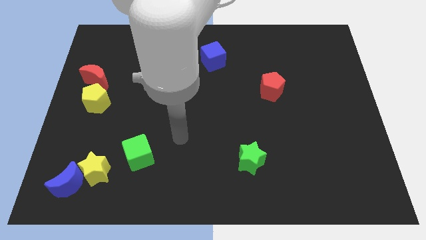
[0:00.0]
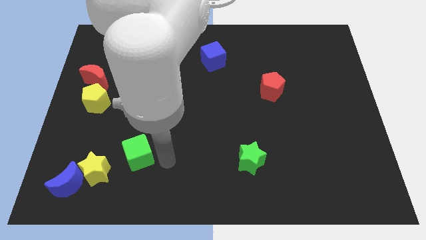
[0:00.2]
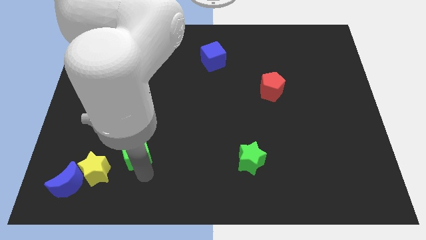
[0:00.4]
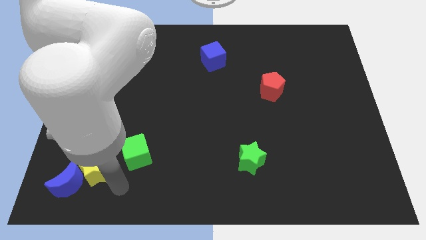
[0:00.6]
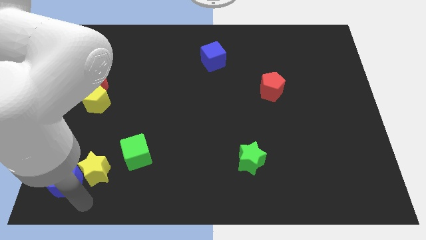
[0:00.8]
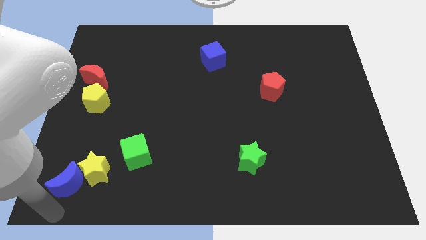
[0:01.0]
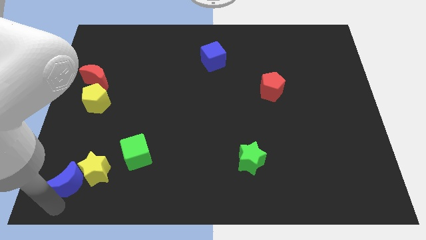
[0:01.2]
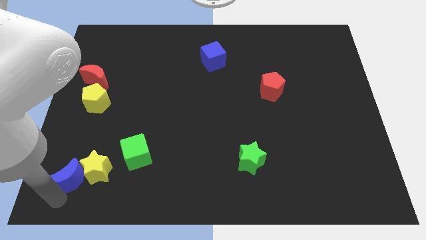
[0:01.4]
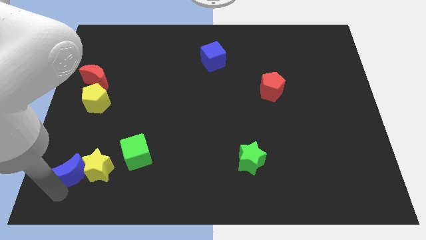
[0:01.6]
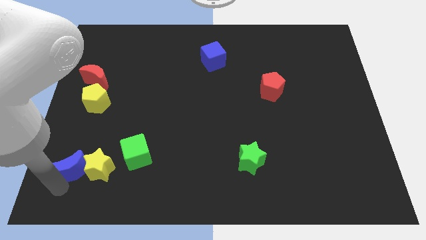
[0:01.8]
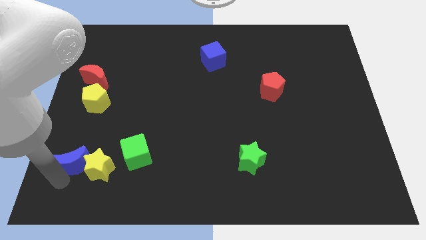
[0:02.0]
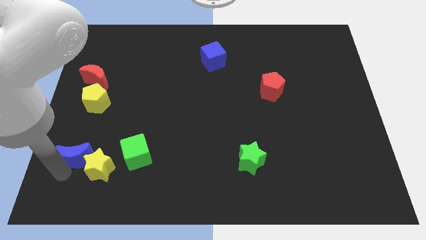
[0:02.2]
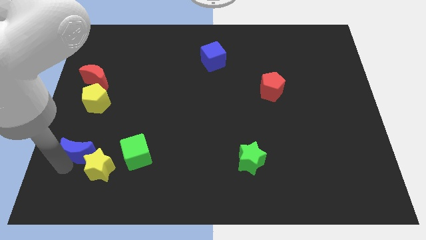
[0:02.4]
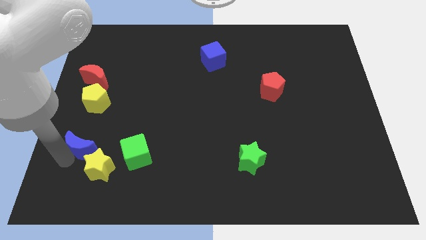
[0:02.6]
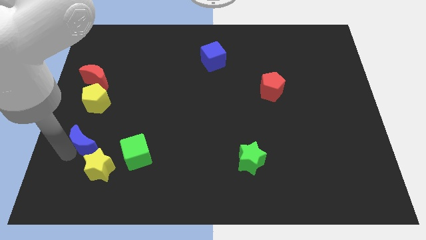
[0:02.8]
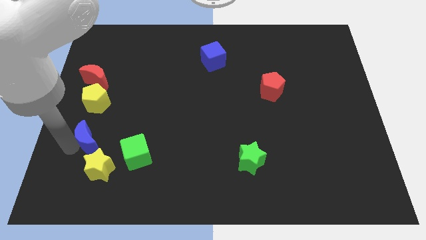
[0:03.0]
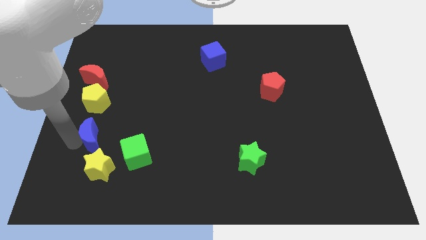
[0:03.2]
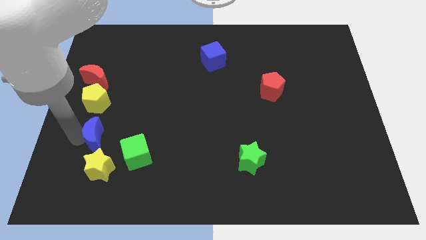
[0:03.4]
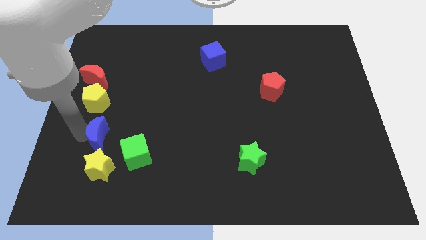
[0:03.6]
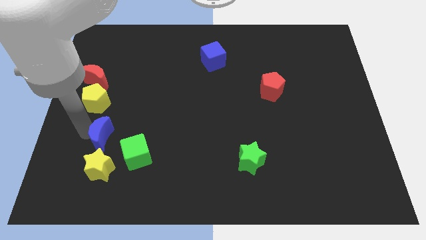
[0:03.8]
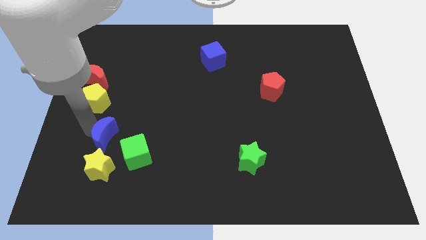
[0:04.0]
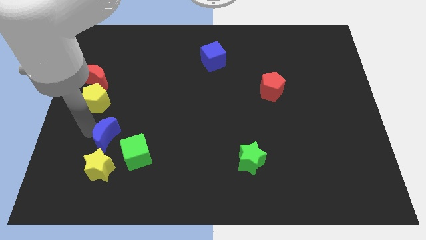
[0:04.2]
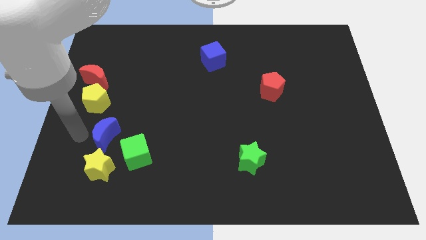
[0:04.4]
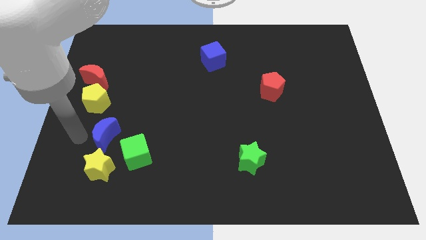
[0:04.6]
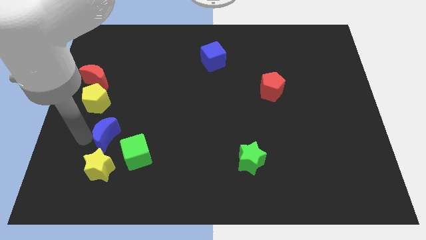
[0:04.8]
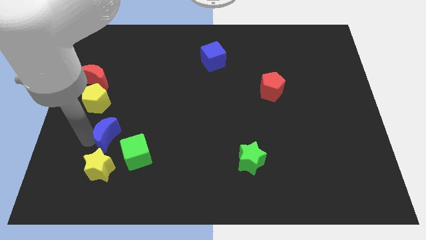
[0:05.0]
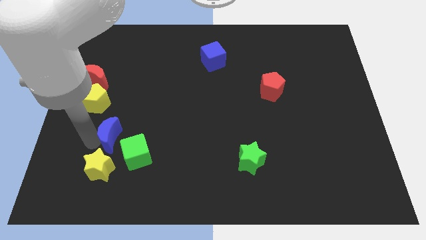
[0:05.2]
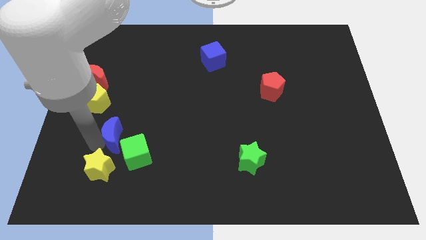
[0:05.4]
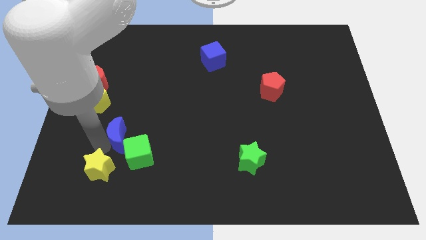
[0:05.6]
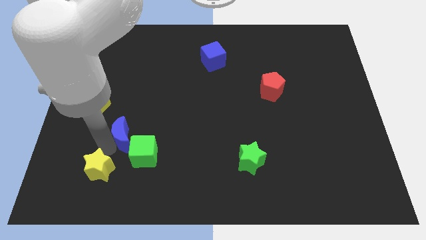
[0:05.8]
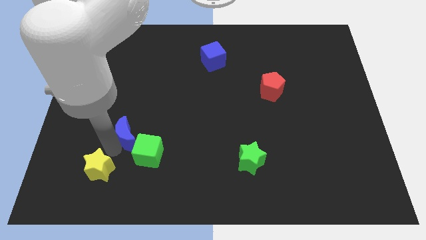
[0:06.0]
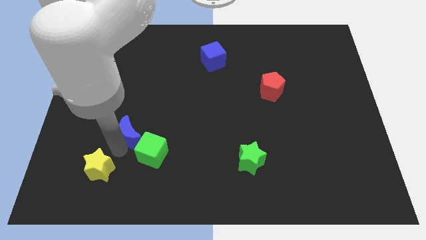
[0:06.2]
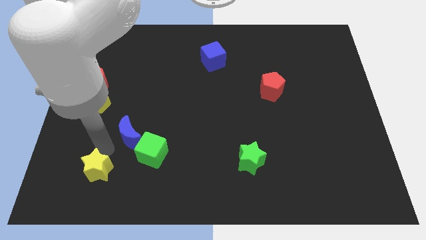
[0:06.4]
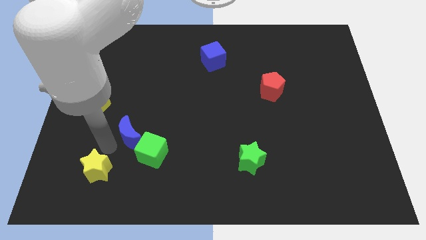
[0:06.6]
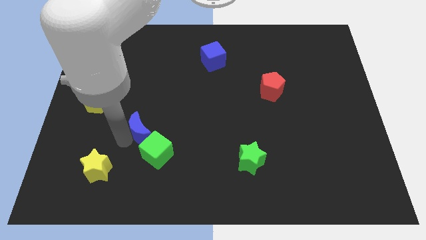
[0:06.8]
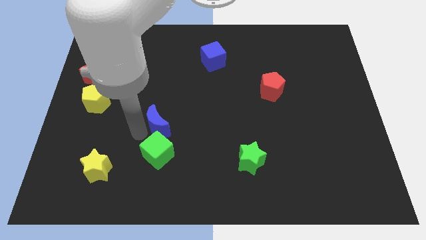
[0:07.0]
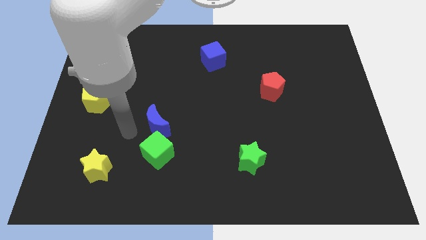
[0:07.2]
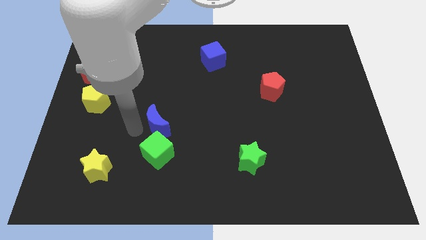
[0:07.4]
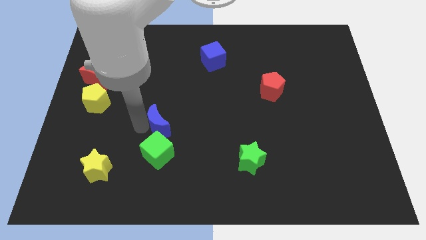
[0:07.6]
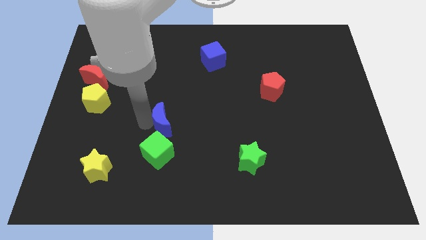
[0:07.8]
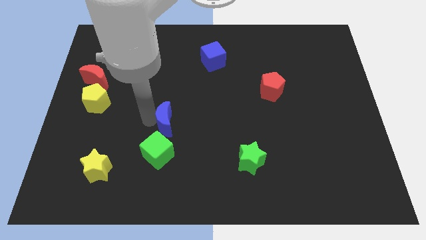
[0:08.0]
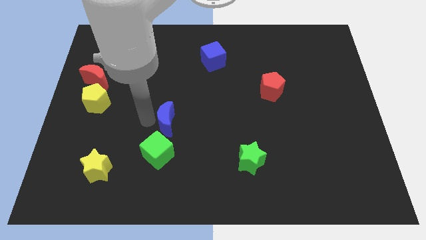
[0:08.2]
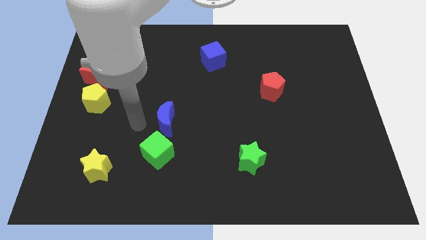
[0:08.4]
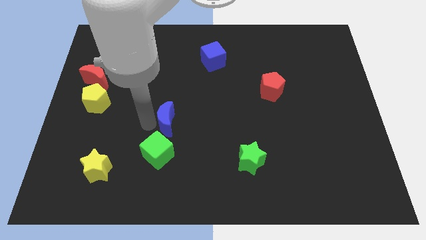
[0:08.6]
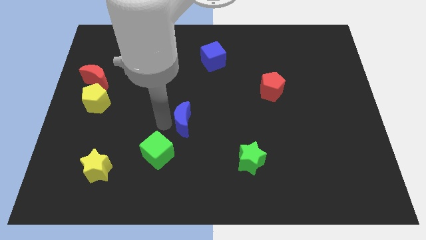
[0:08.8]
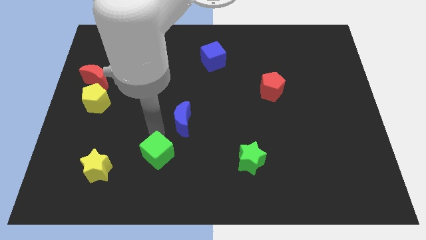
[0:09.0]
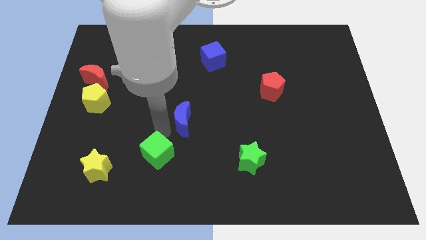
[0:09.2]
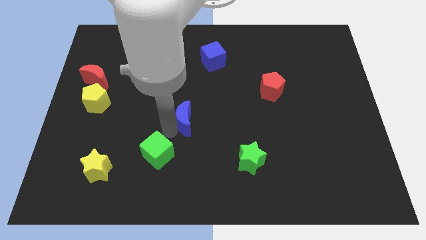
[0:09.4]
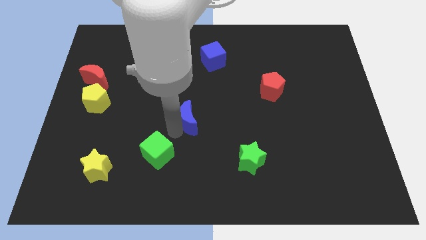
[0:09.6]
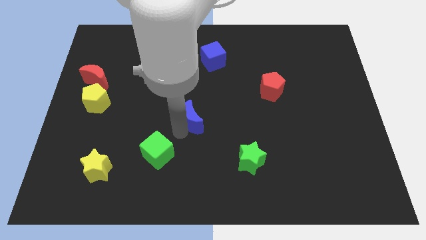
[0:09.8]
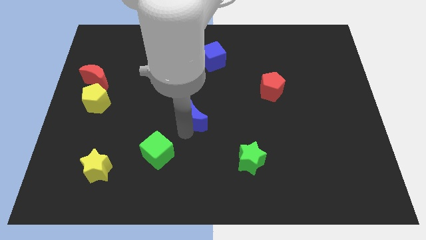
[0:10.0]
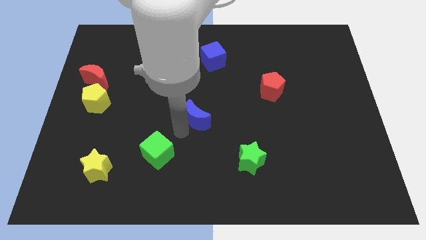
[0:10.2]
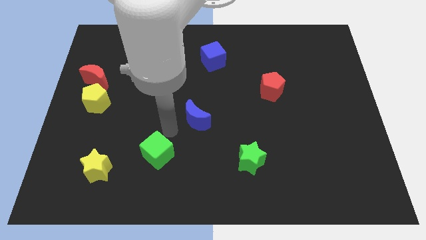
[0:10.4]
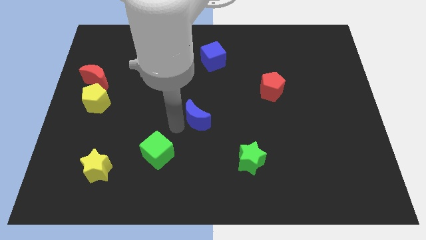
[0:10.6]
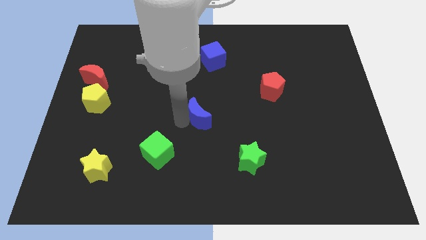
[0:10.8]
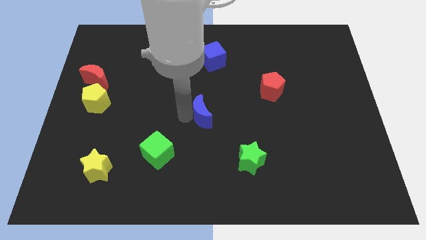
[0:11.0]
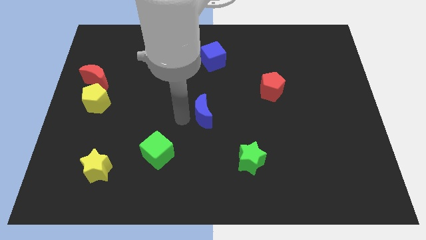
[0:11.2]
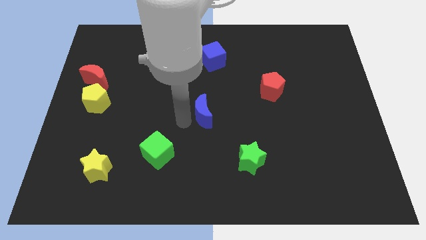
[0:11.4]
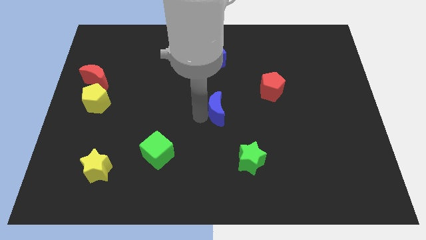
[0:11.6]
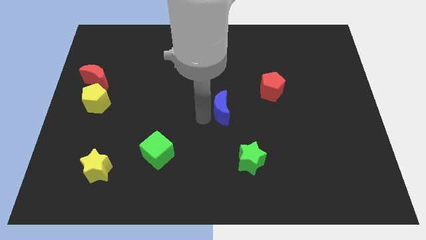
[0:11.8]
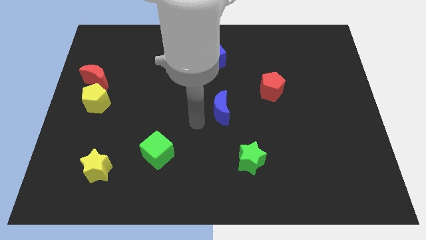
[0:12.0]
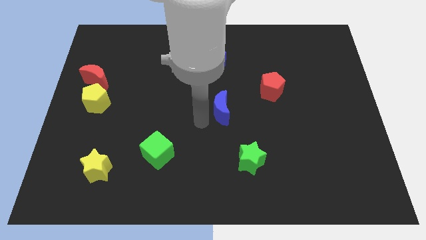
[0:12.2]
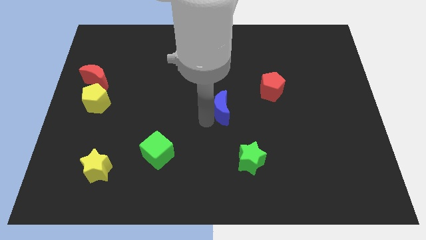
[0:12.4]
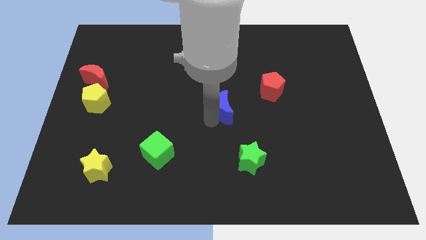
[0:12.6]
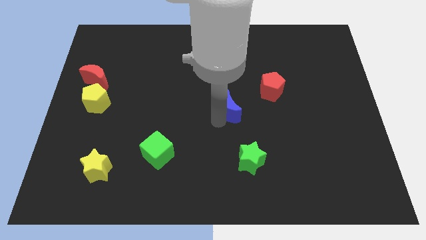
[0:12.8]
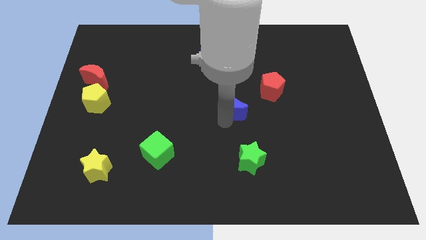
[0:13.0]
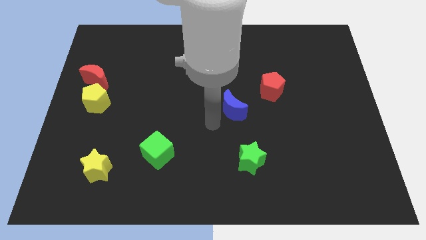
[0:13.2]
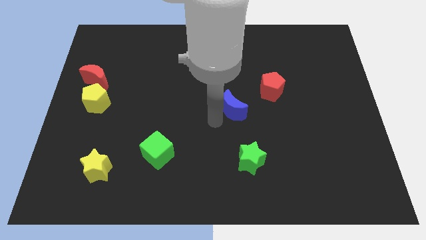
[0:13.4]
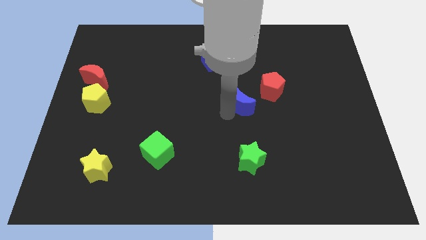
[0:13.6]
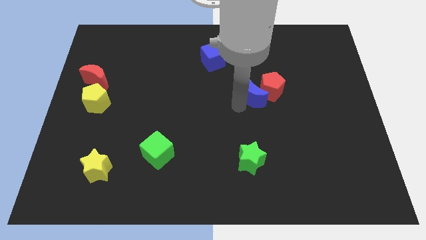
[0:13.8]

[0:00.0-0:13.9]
slide the blue moon to the red pentagon
